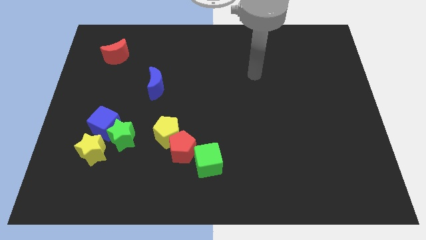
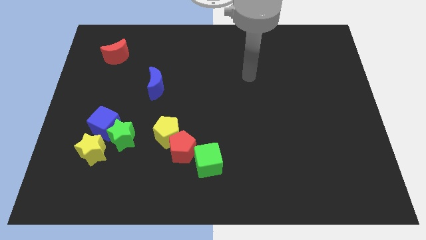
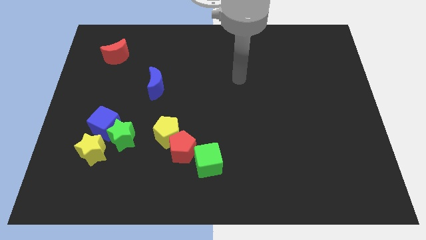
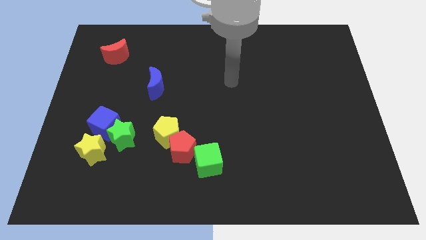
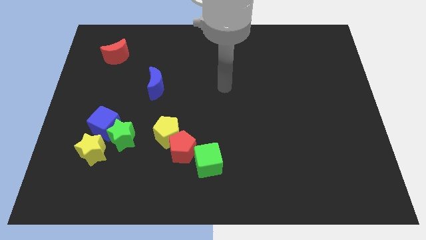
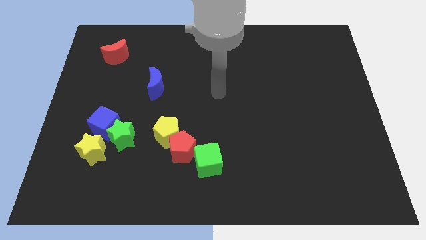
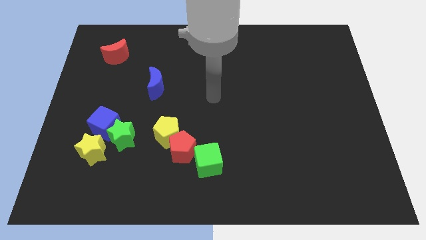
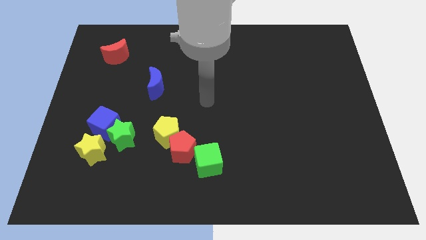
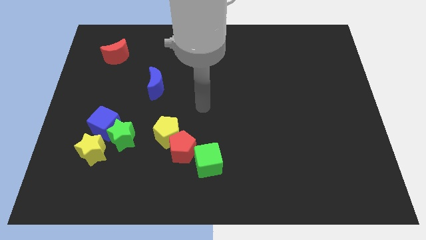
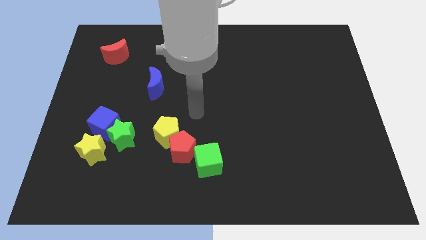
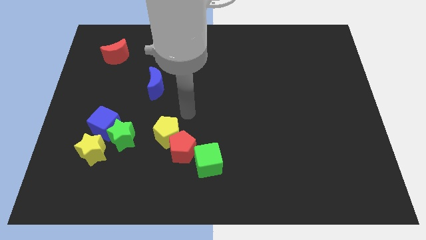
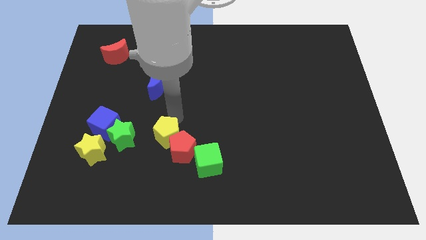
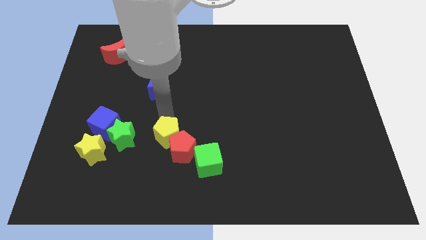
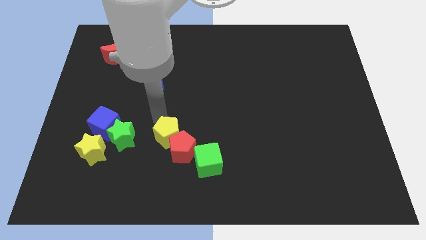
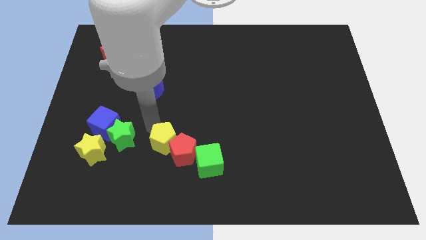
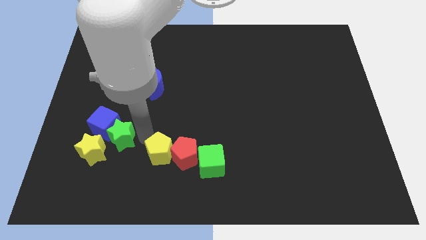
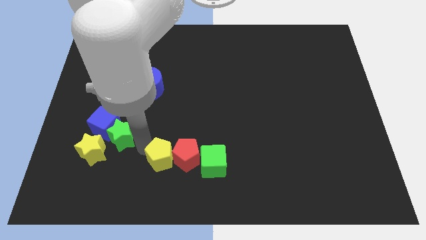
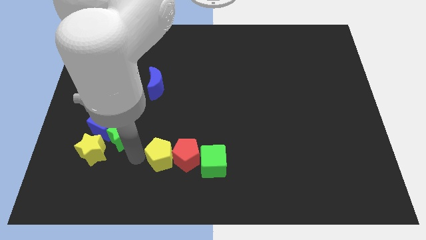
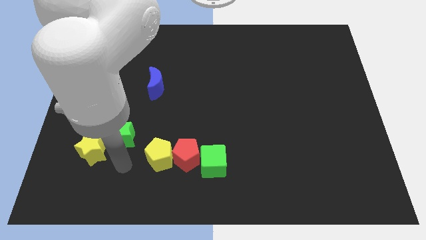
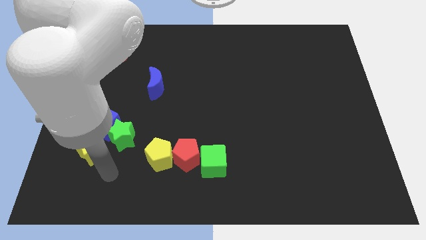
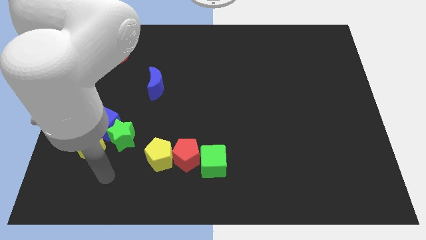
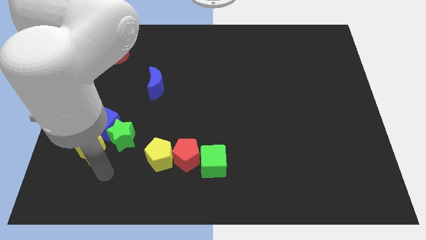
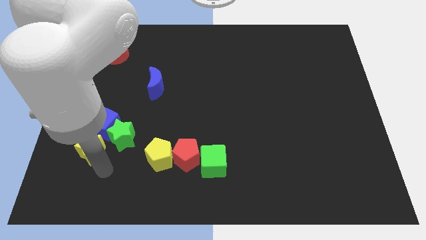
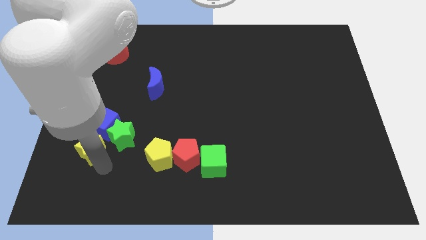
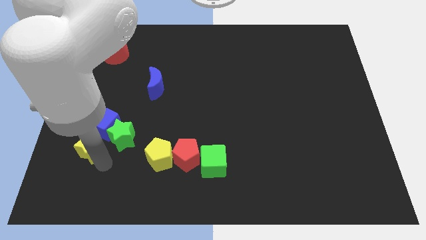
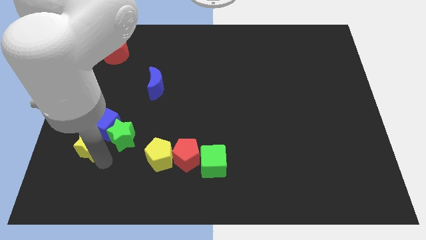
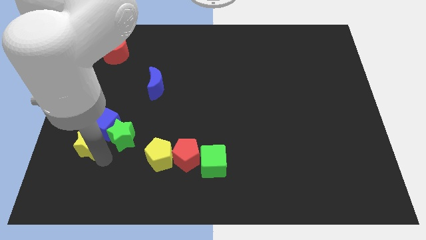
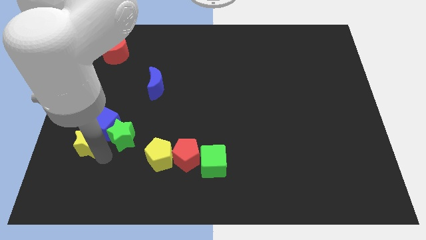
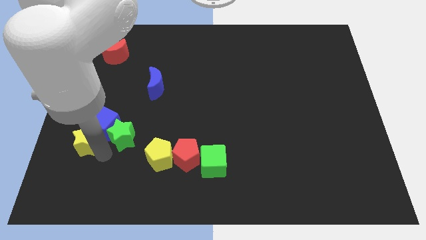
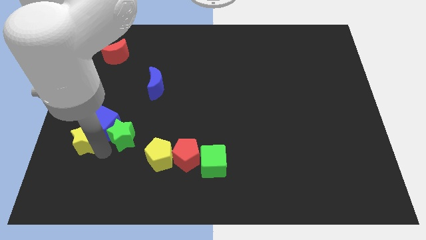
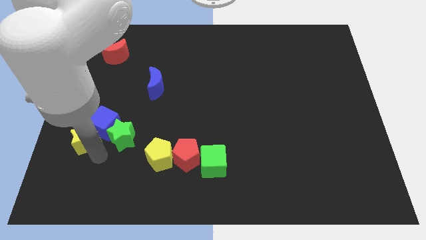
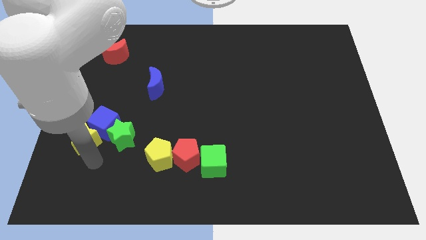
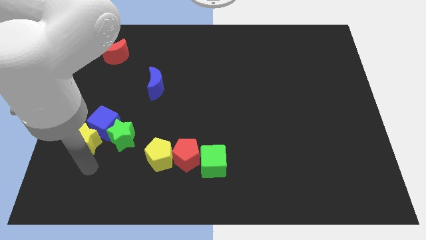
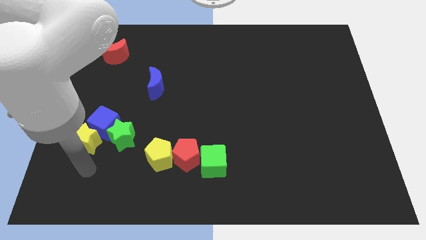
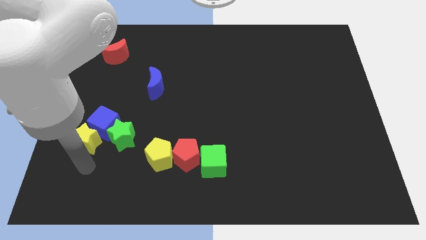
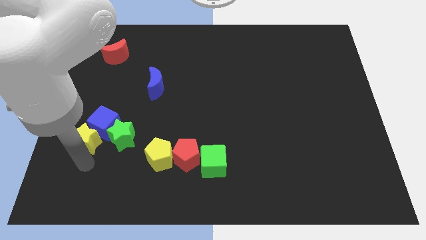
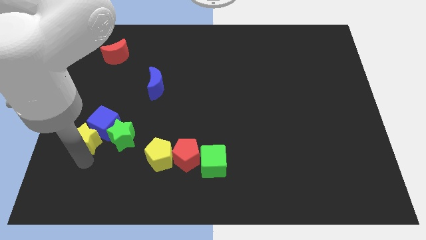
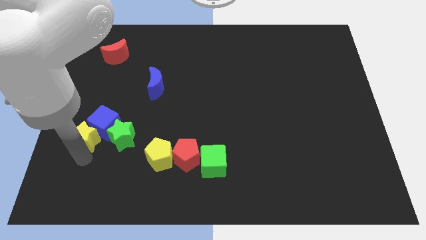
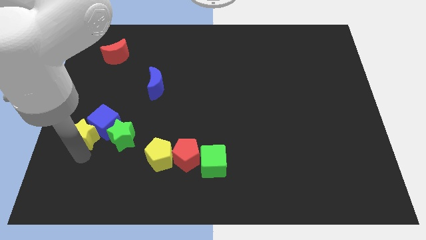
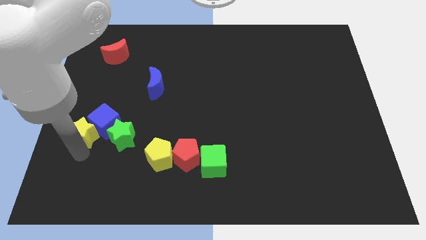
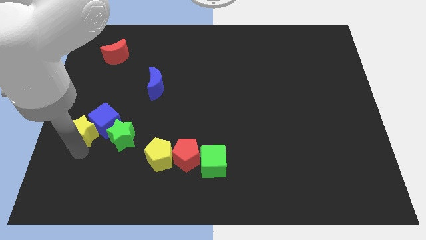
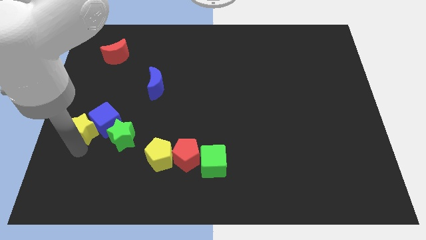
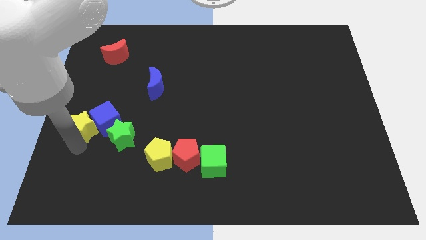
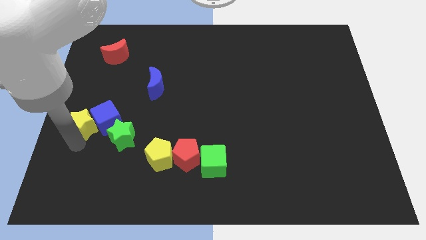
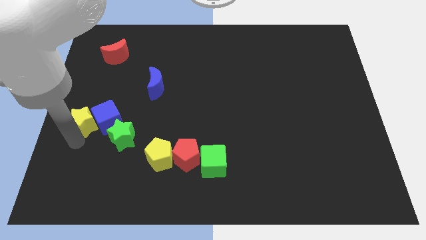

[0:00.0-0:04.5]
move the yellow star upwards somewhat

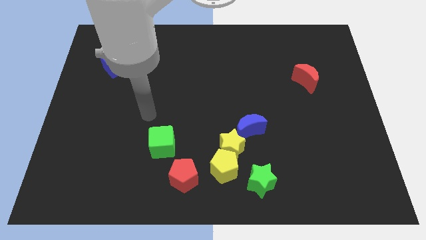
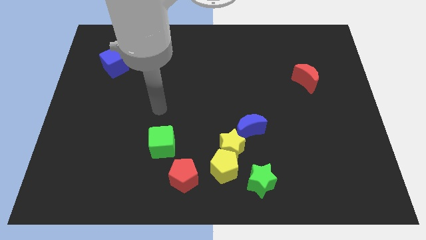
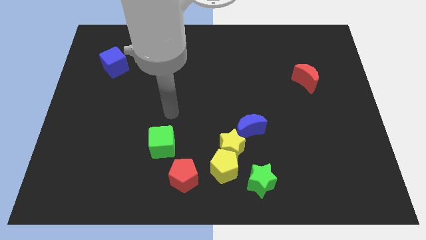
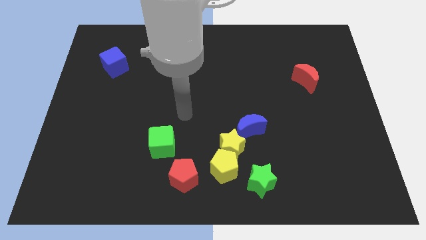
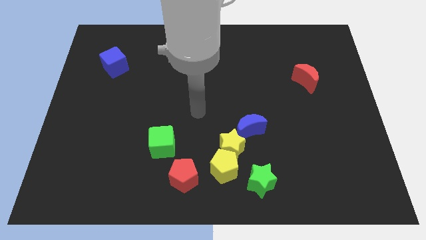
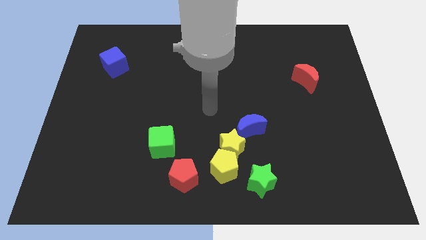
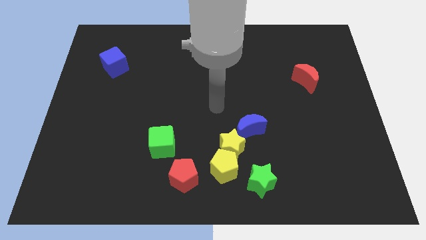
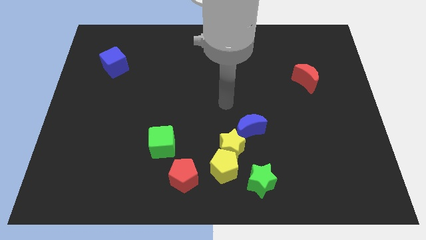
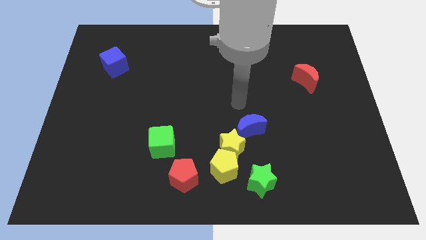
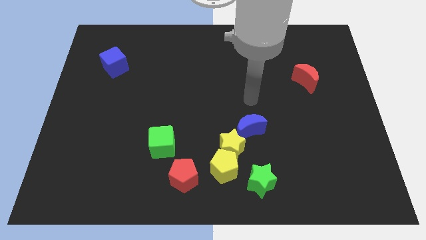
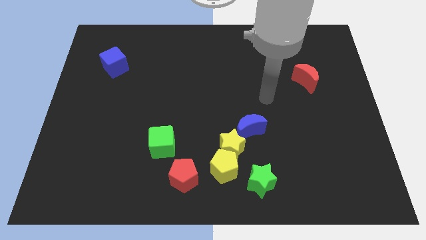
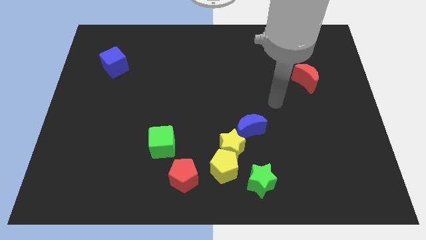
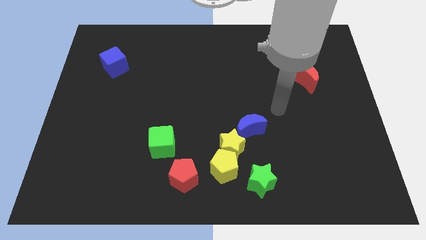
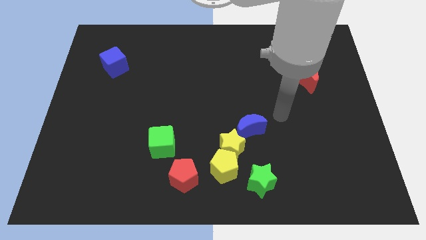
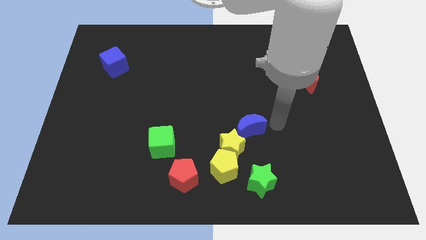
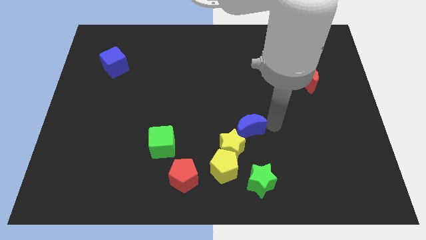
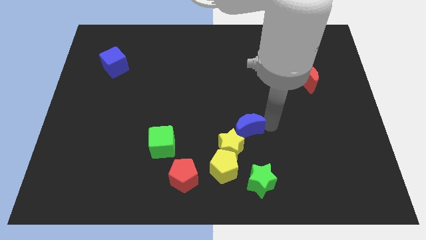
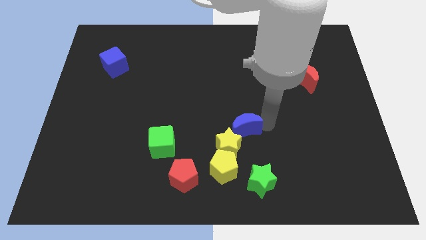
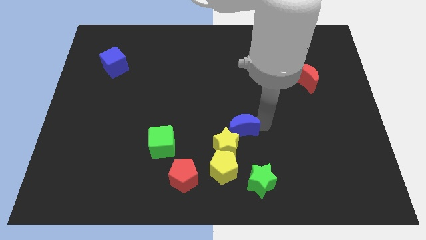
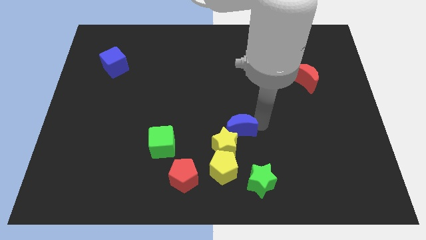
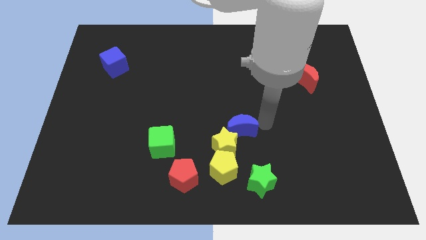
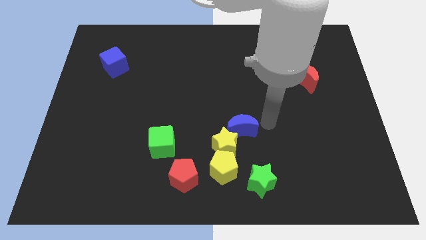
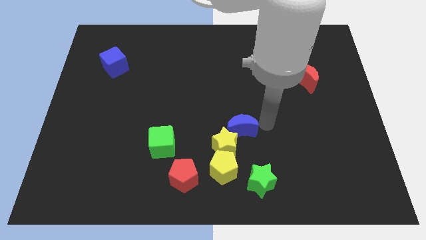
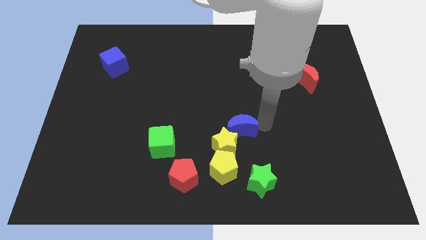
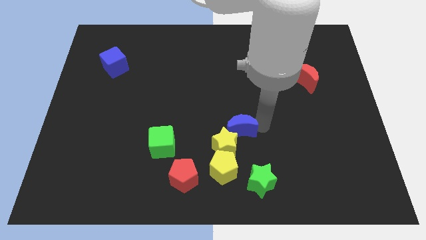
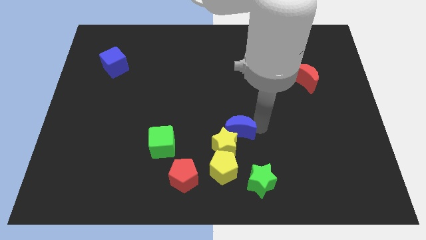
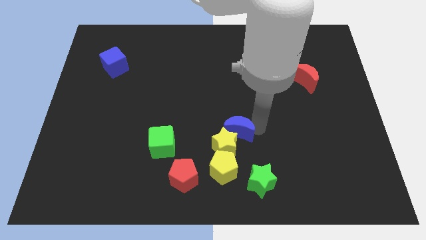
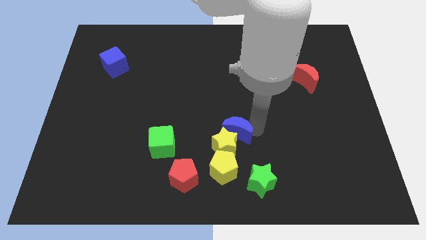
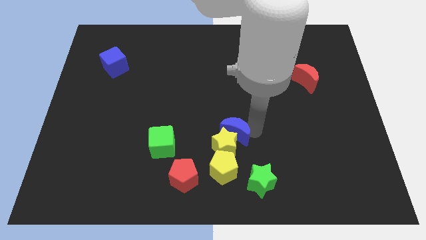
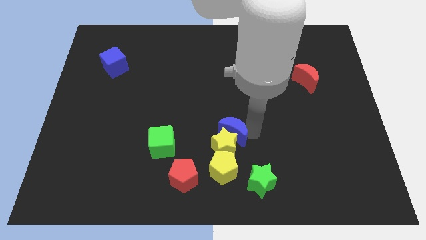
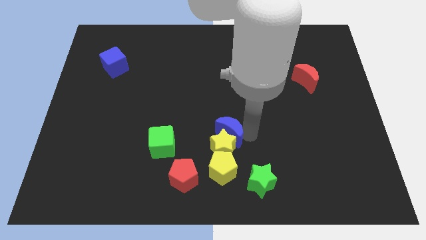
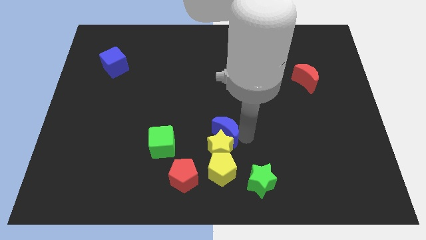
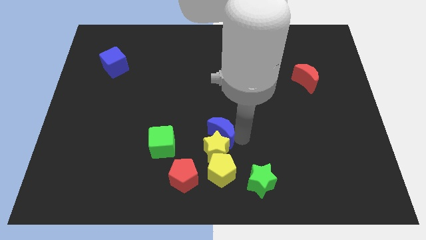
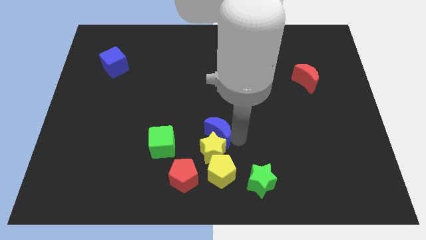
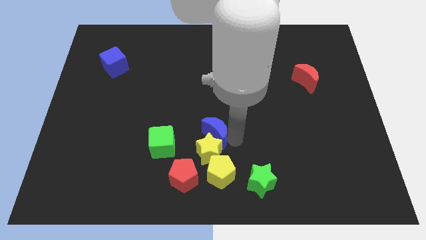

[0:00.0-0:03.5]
slide the blue moon to the left a bit

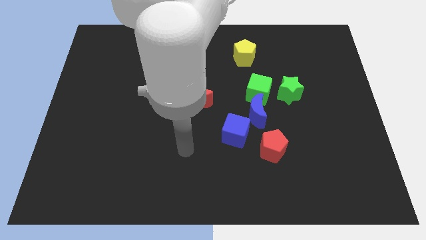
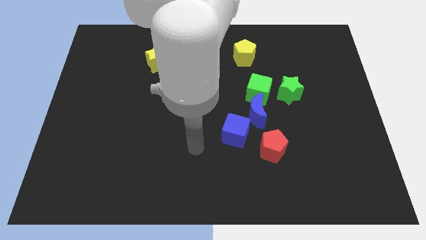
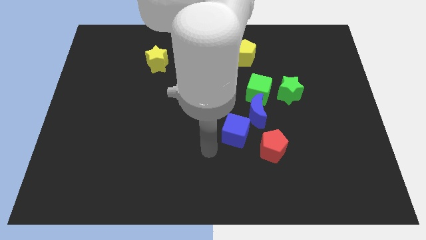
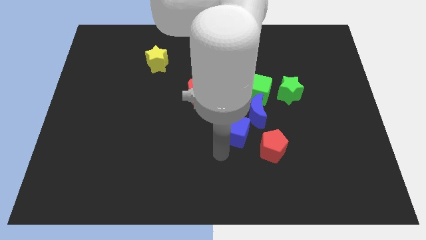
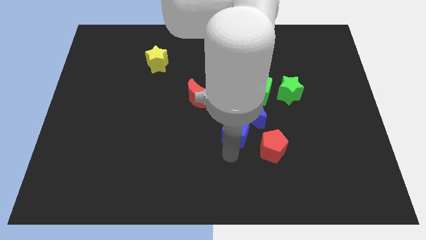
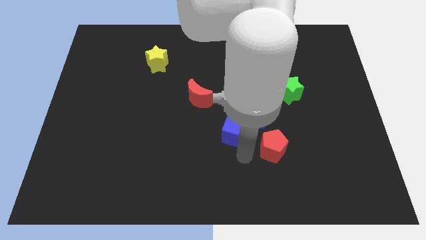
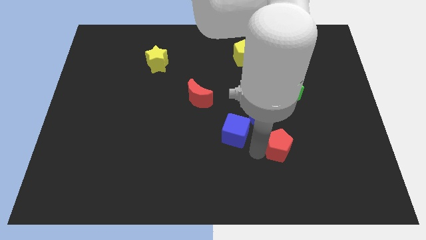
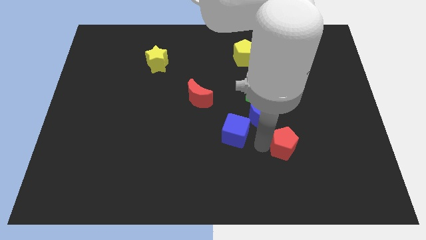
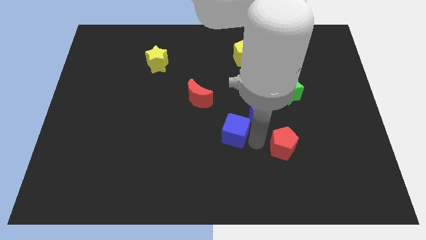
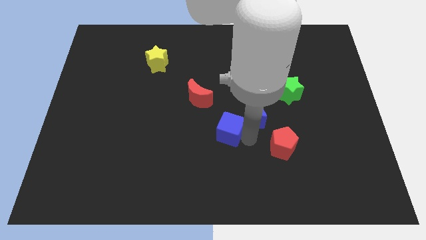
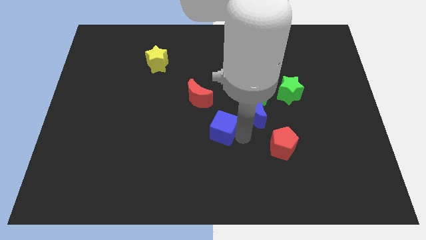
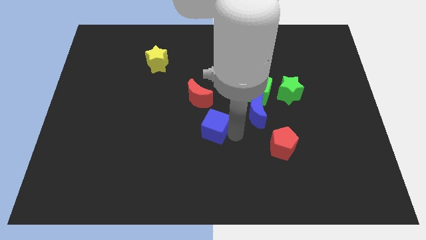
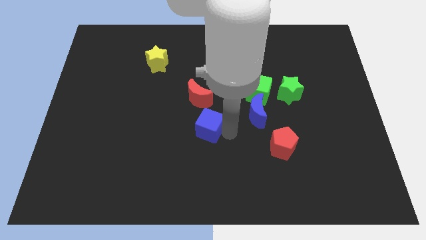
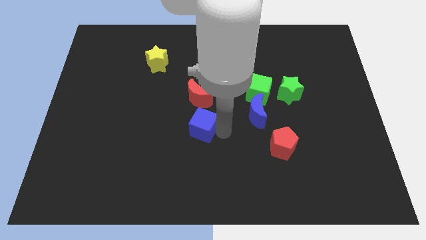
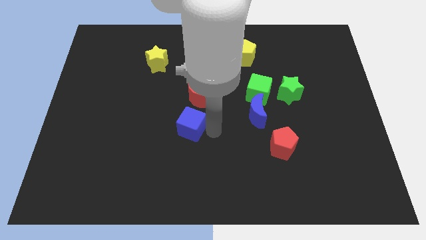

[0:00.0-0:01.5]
push the blue cube upwards and to the left diagonally a little bit
